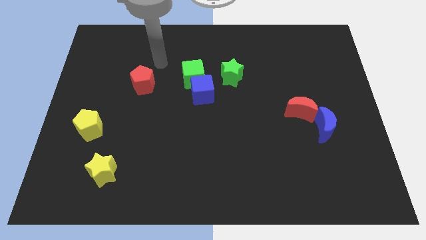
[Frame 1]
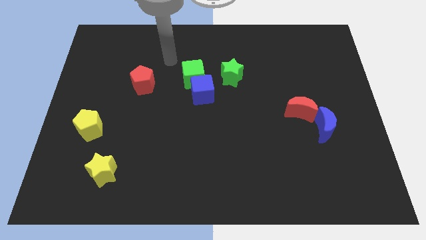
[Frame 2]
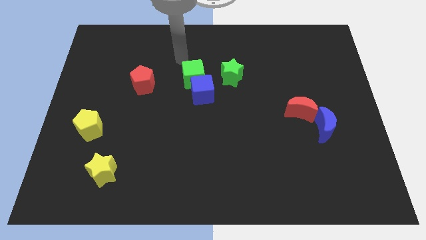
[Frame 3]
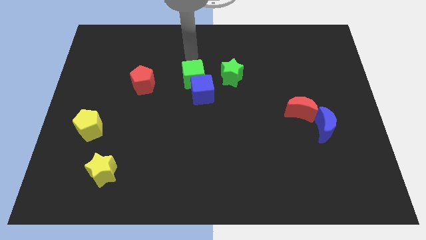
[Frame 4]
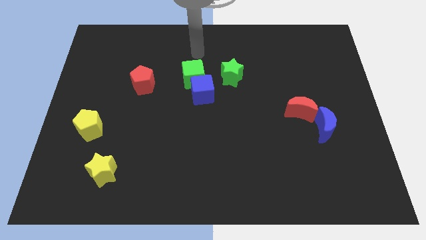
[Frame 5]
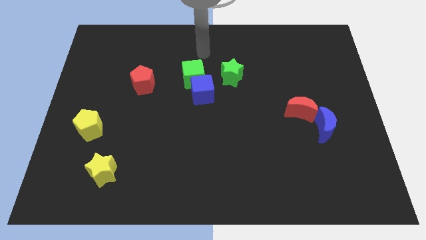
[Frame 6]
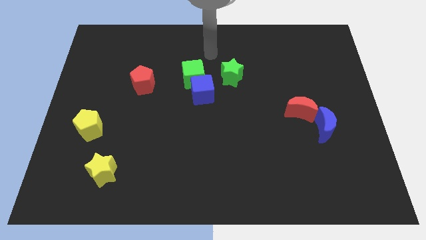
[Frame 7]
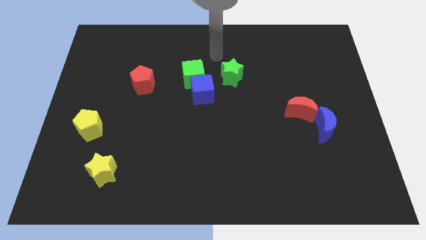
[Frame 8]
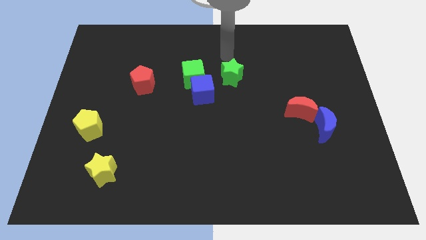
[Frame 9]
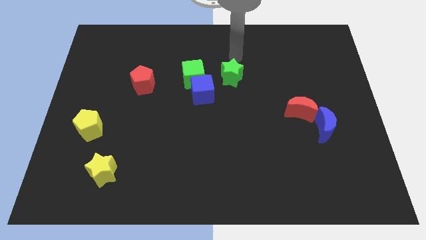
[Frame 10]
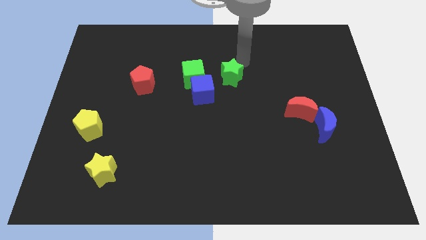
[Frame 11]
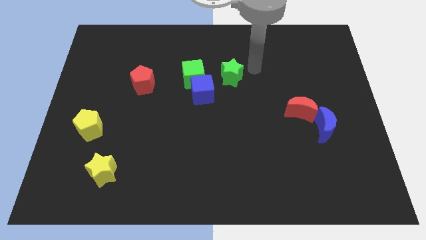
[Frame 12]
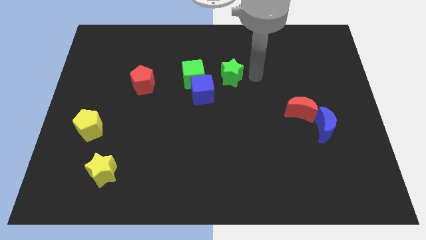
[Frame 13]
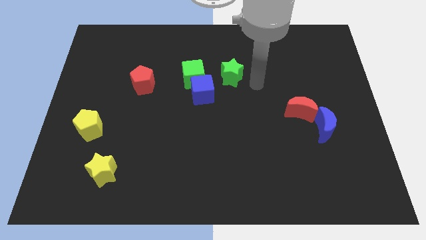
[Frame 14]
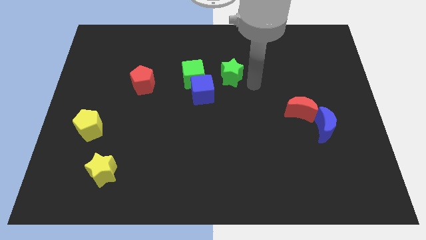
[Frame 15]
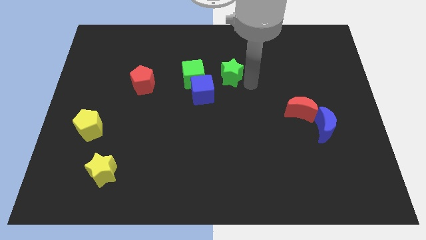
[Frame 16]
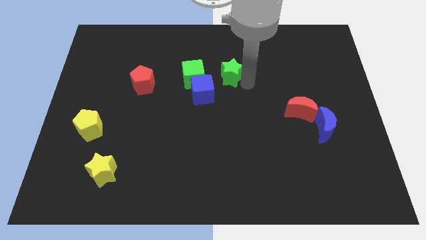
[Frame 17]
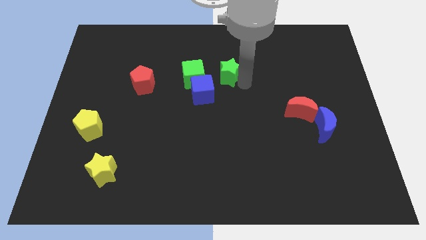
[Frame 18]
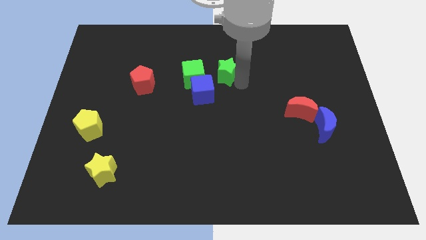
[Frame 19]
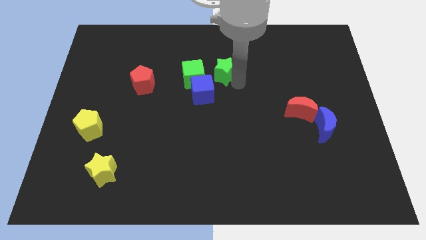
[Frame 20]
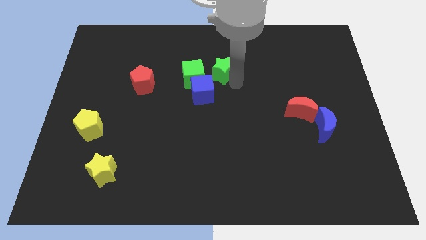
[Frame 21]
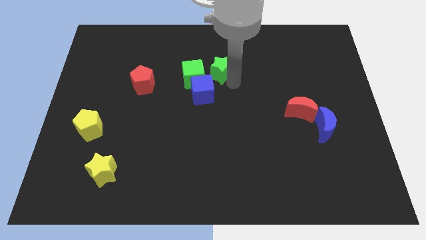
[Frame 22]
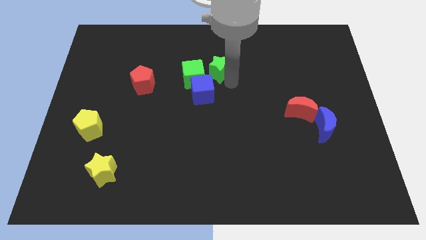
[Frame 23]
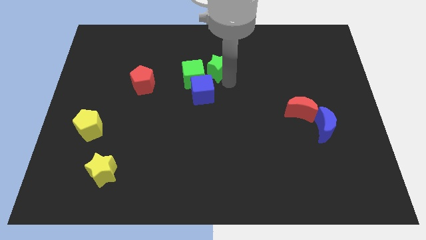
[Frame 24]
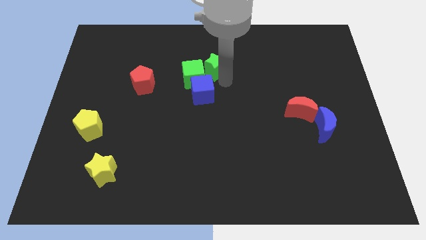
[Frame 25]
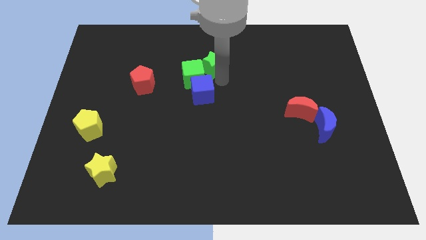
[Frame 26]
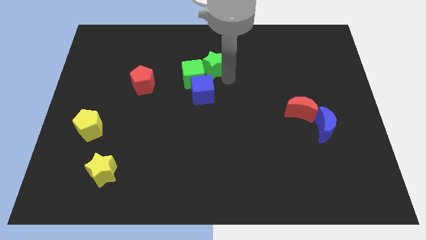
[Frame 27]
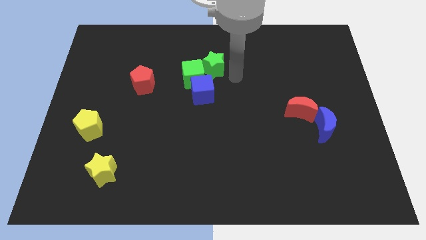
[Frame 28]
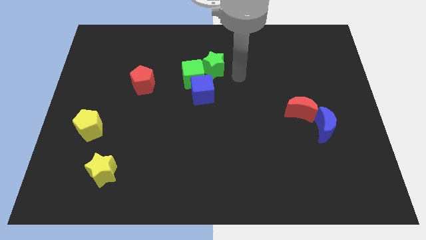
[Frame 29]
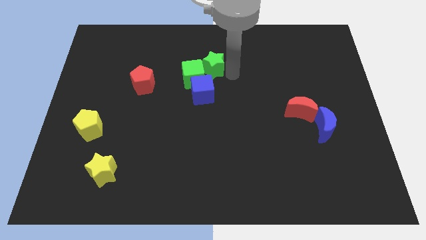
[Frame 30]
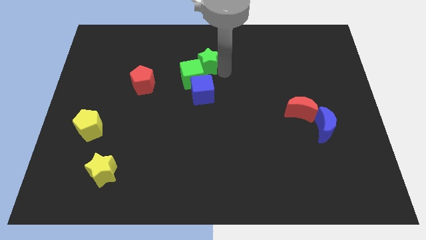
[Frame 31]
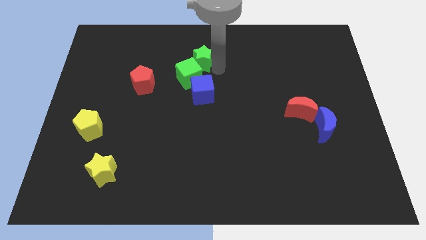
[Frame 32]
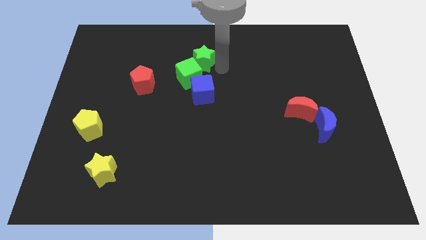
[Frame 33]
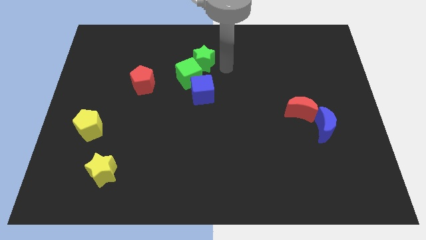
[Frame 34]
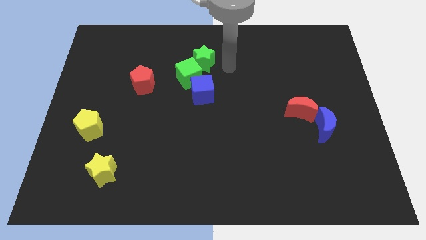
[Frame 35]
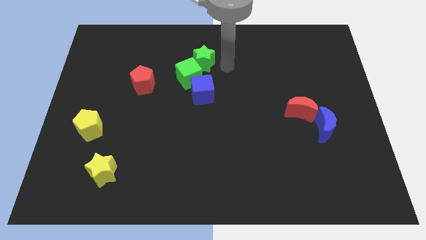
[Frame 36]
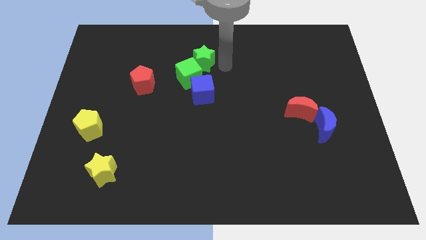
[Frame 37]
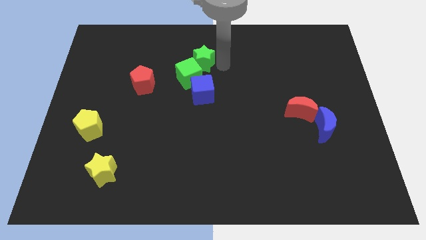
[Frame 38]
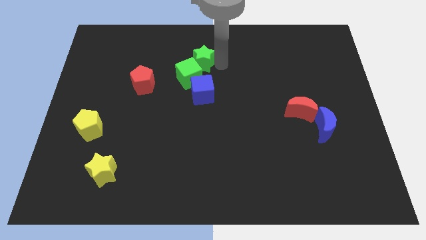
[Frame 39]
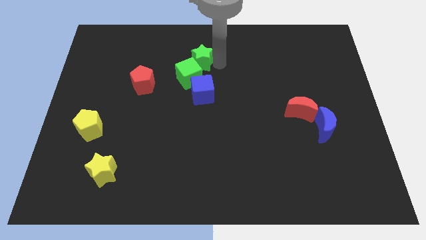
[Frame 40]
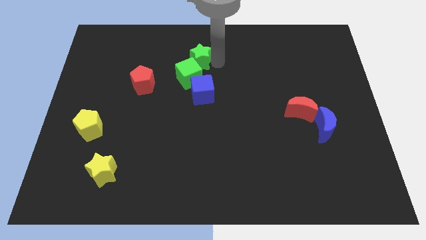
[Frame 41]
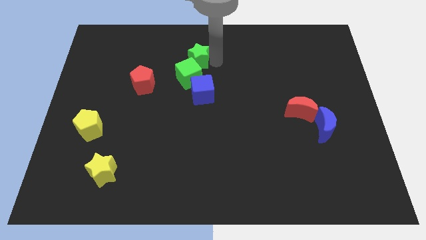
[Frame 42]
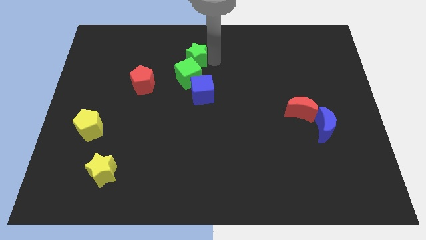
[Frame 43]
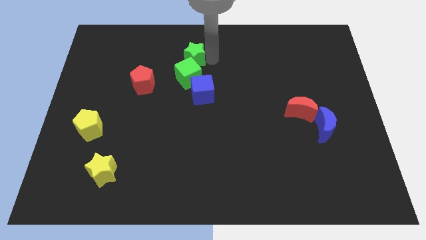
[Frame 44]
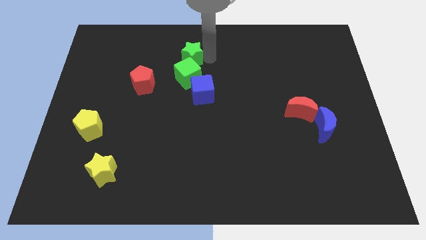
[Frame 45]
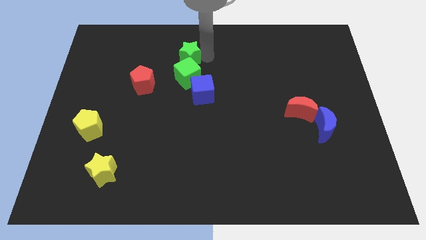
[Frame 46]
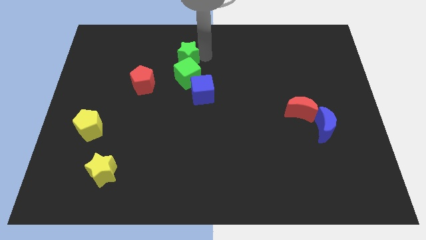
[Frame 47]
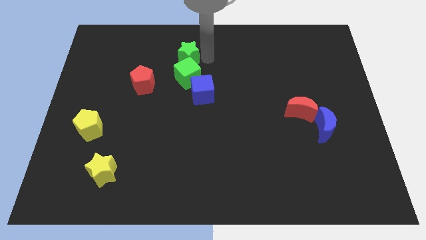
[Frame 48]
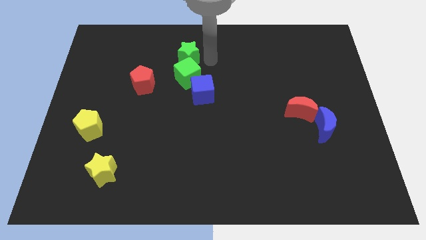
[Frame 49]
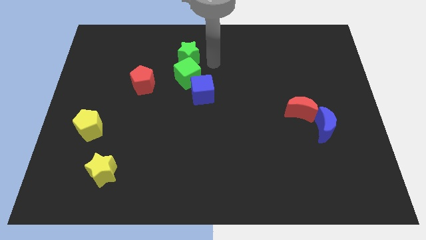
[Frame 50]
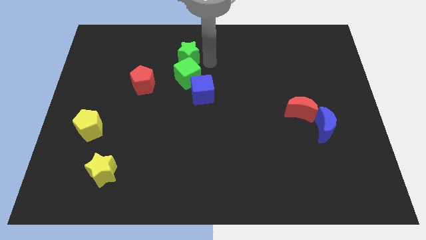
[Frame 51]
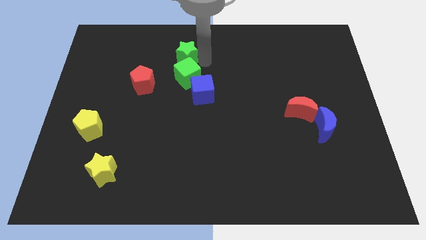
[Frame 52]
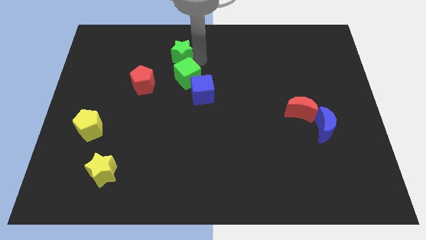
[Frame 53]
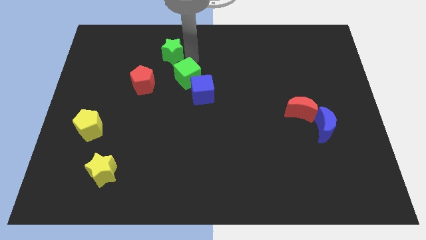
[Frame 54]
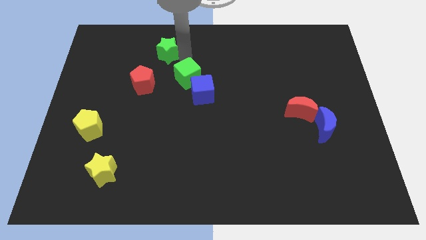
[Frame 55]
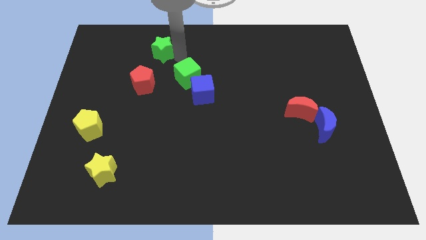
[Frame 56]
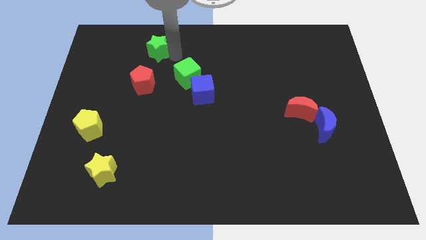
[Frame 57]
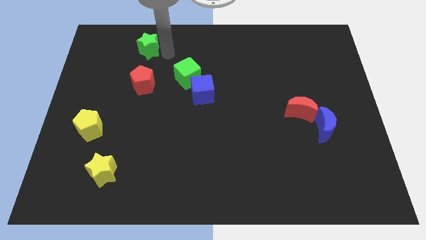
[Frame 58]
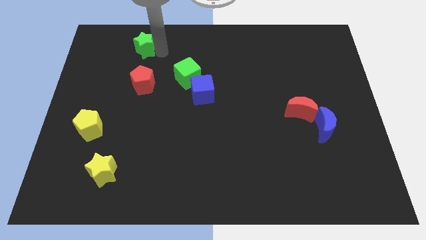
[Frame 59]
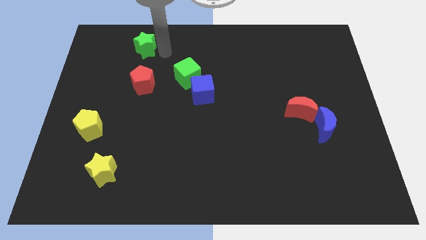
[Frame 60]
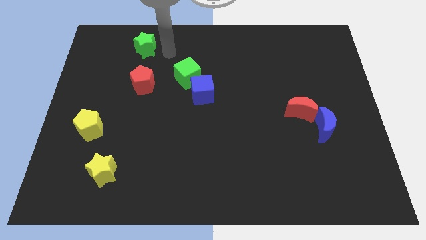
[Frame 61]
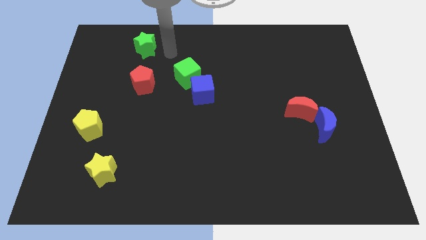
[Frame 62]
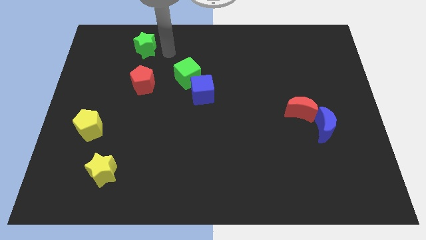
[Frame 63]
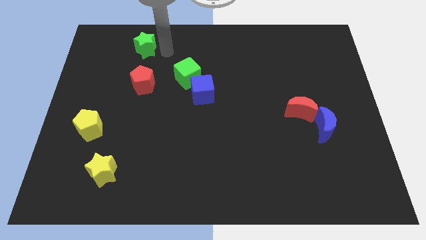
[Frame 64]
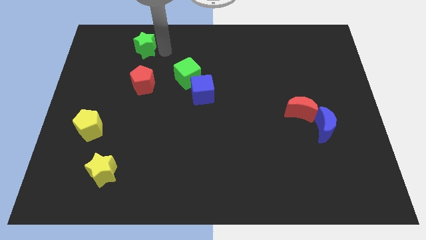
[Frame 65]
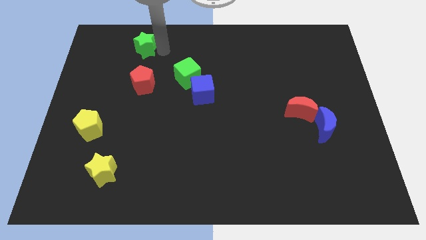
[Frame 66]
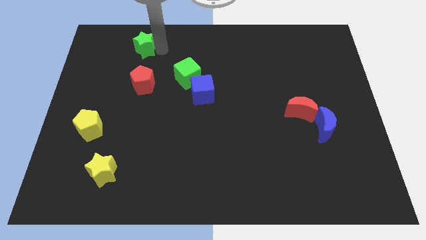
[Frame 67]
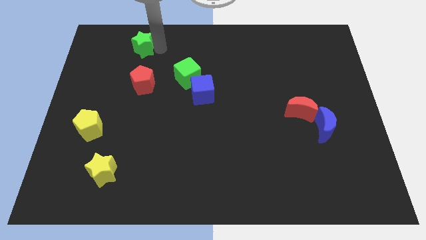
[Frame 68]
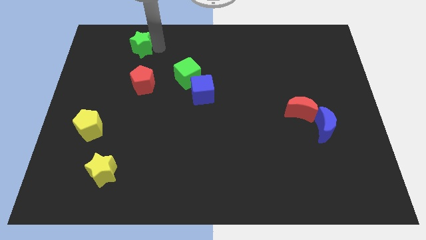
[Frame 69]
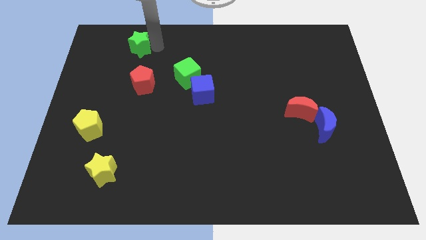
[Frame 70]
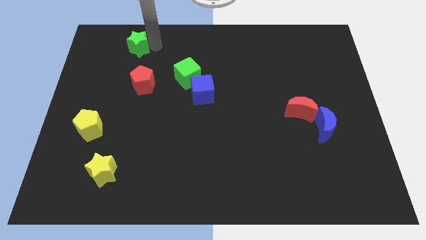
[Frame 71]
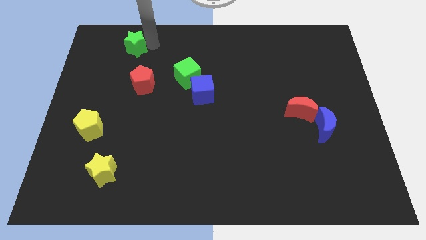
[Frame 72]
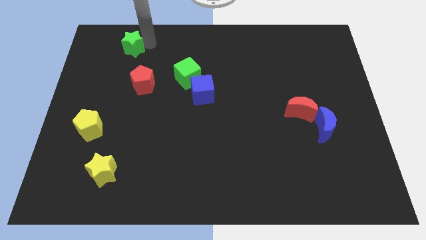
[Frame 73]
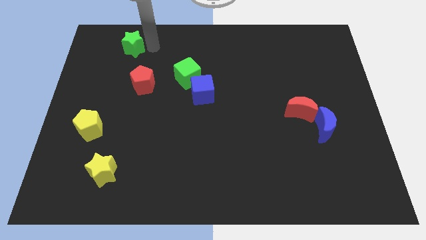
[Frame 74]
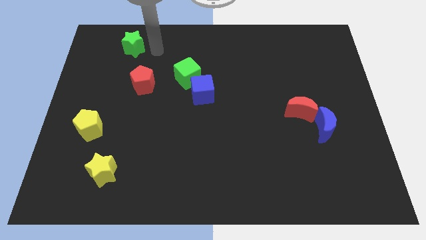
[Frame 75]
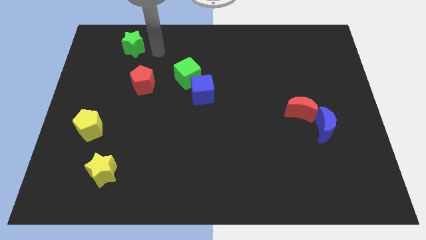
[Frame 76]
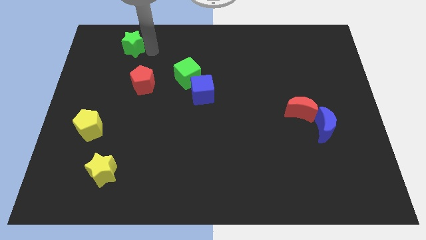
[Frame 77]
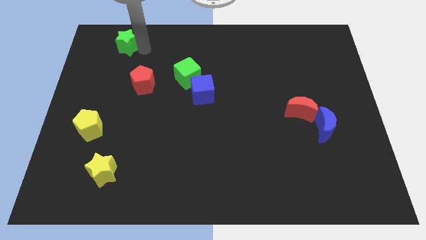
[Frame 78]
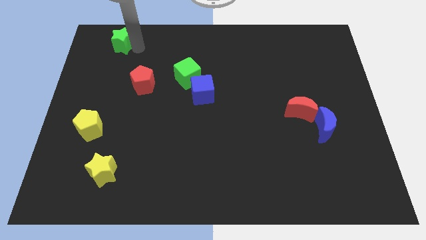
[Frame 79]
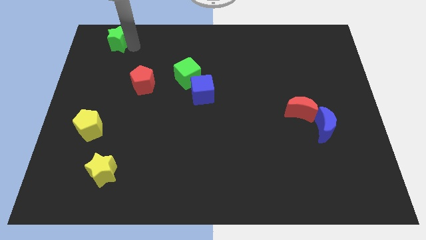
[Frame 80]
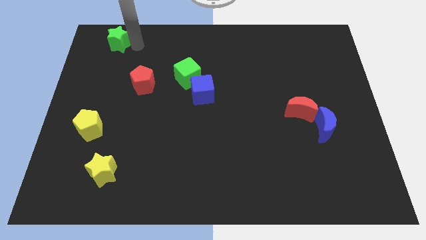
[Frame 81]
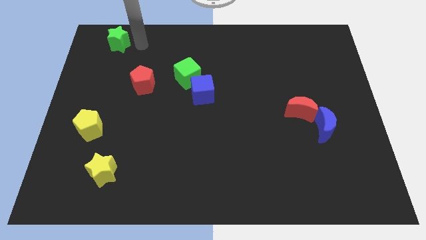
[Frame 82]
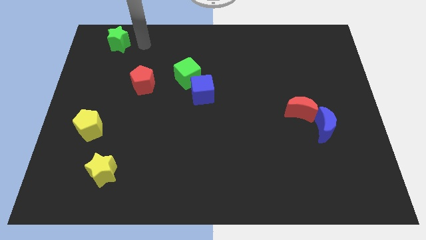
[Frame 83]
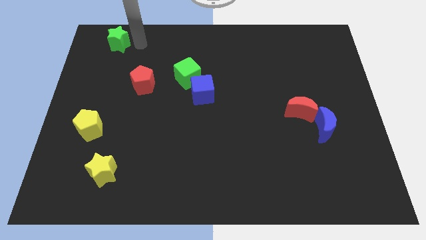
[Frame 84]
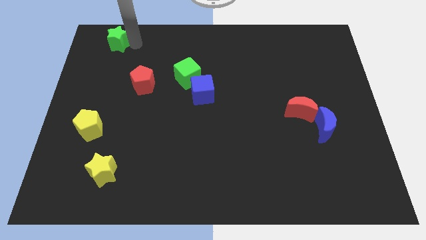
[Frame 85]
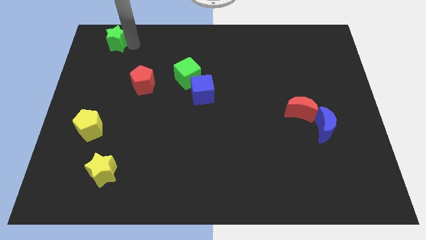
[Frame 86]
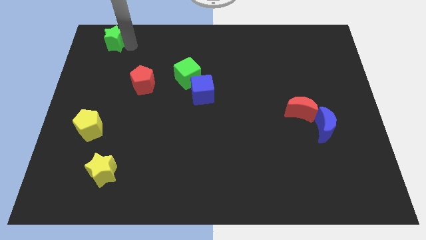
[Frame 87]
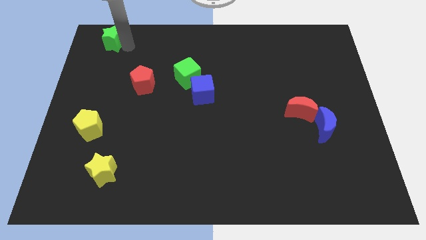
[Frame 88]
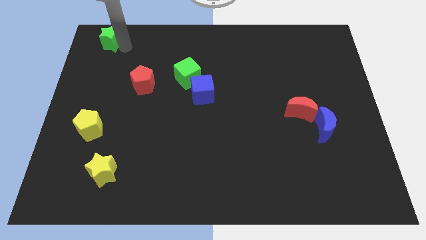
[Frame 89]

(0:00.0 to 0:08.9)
move the green star to the top left of the board
